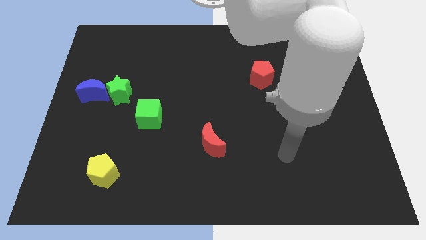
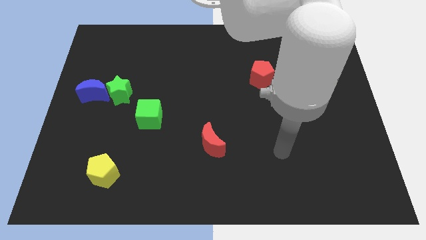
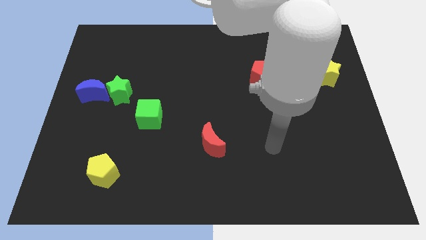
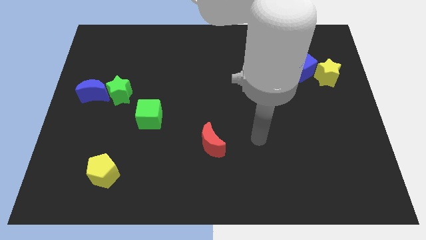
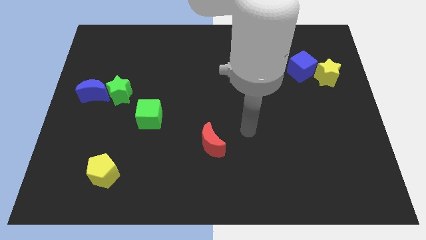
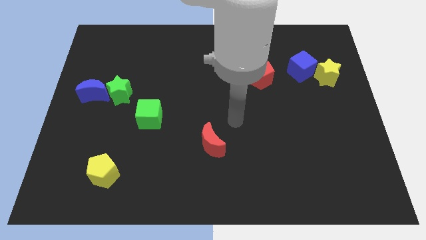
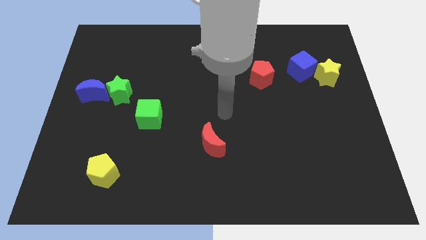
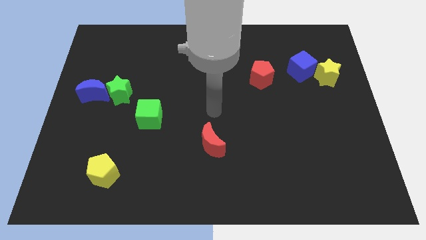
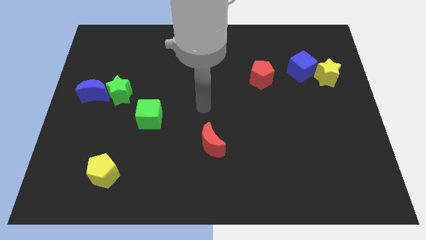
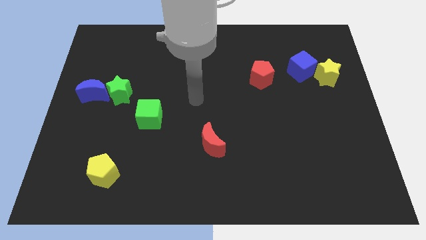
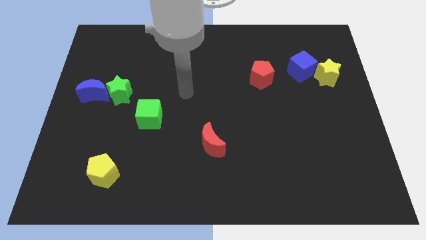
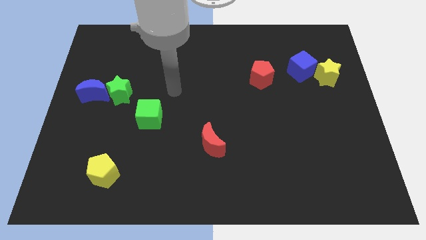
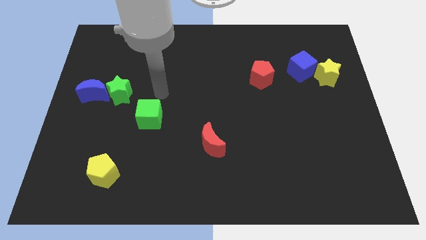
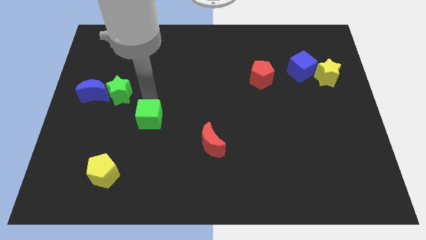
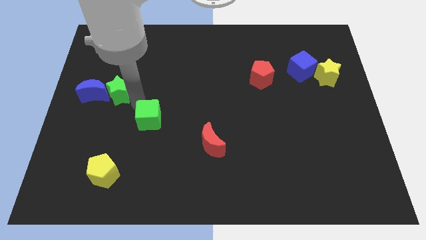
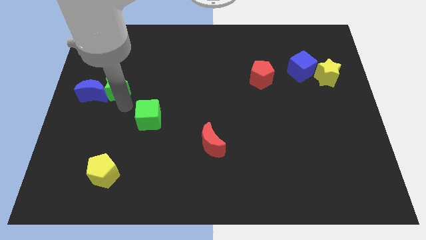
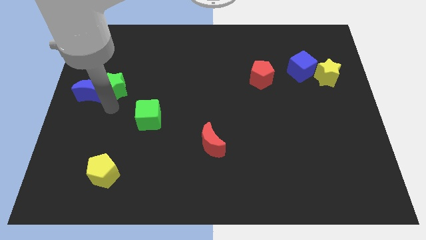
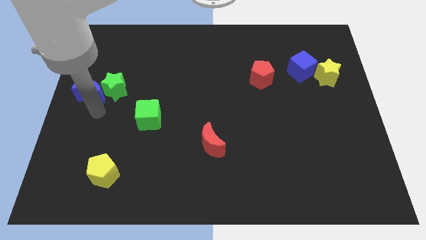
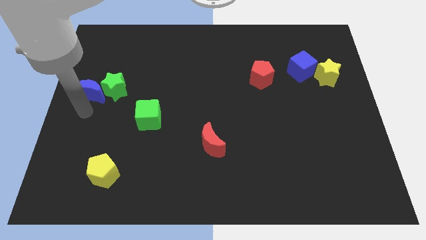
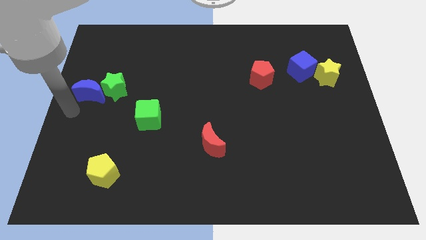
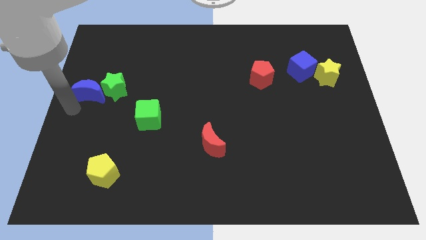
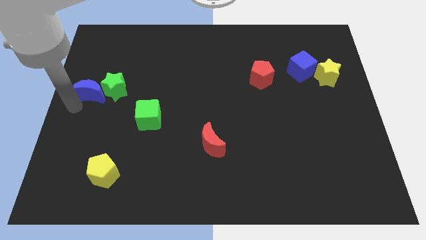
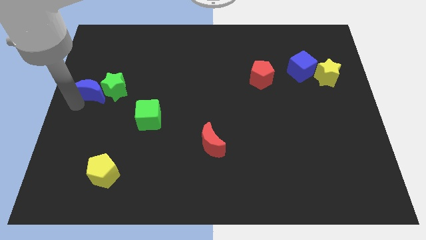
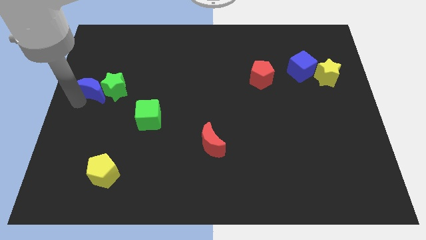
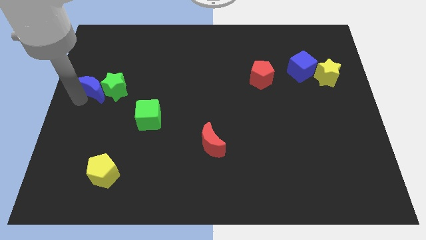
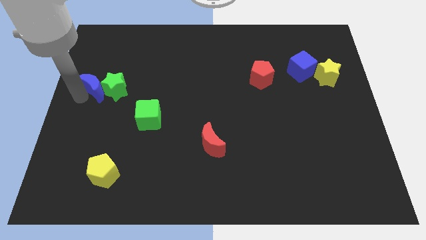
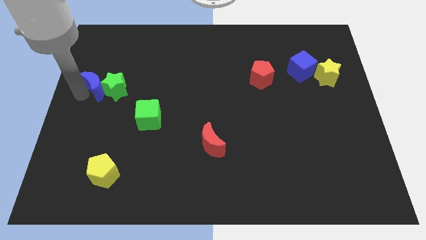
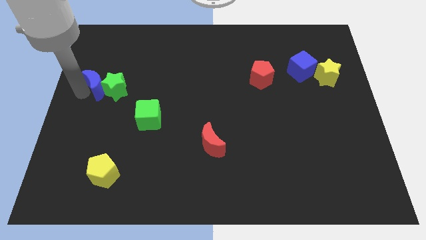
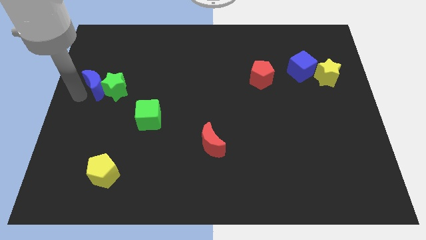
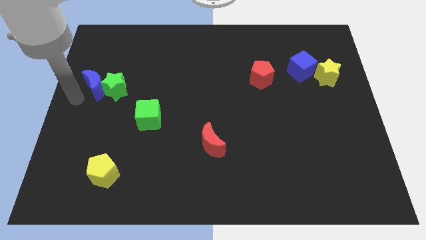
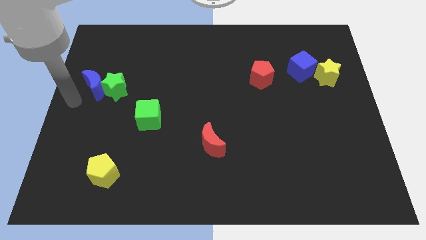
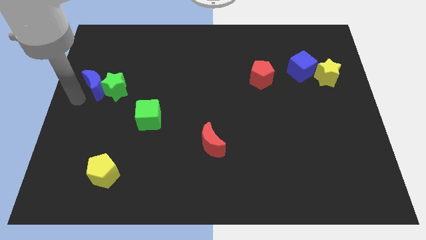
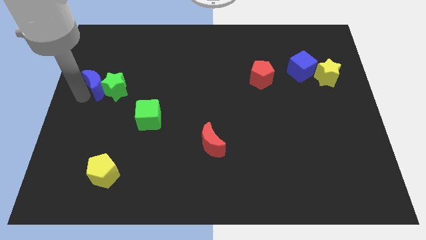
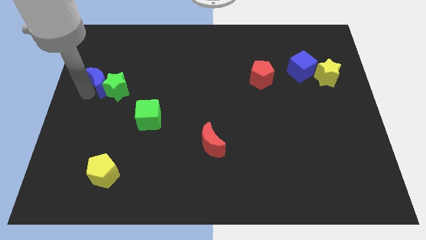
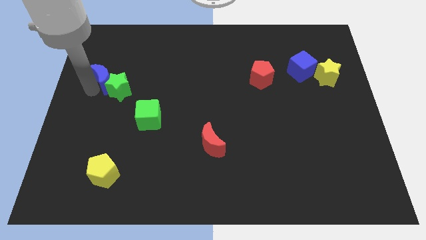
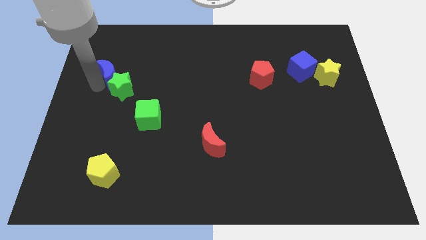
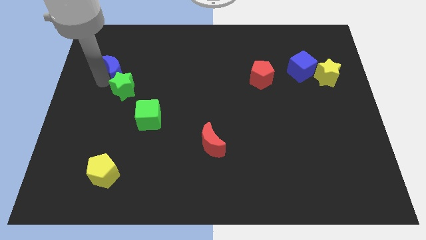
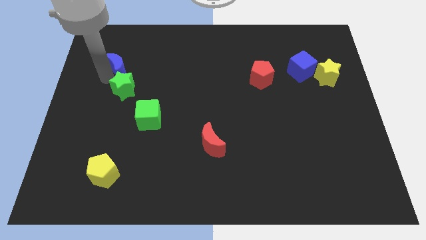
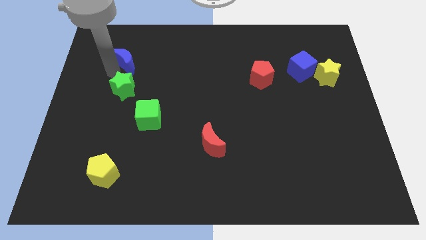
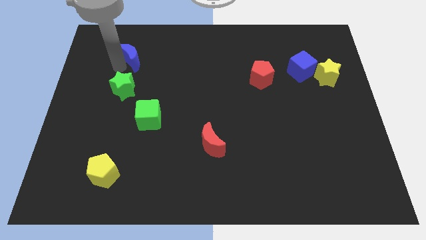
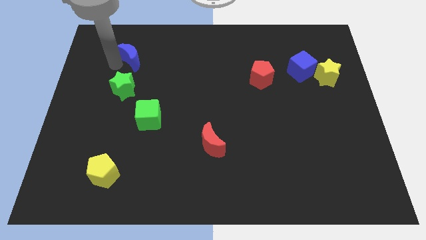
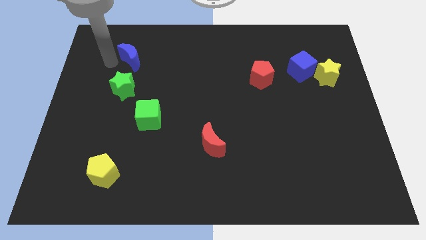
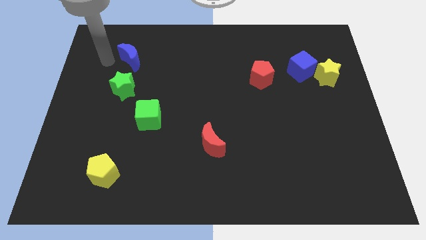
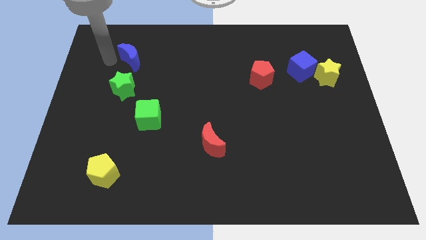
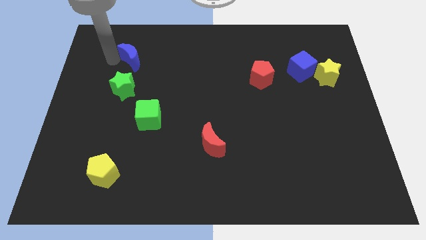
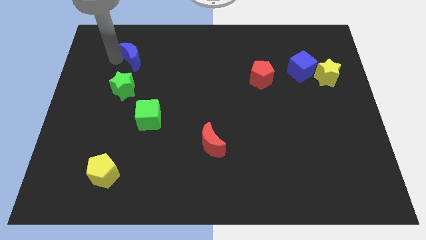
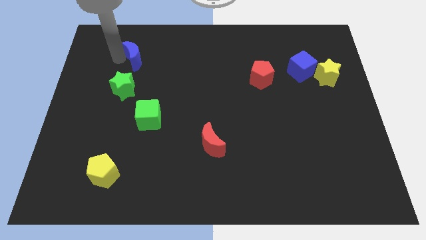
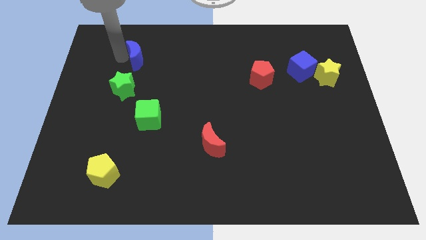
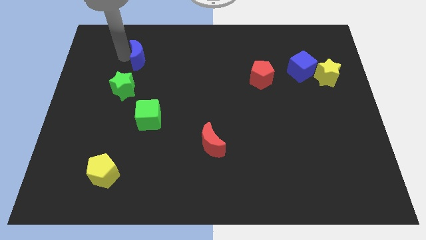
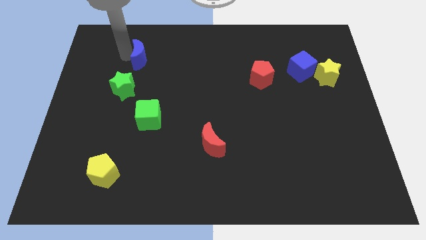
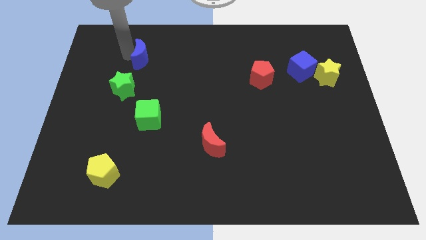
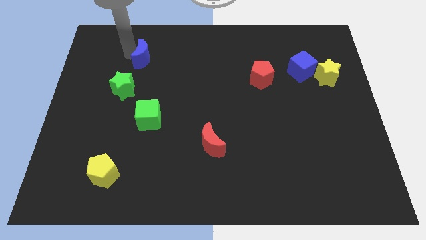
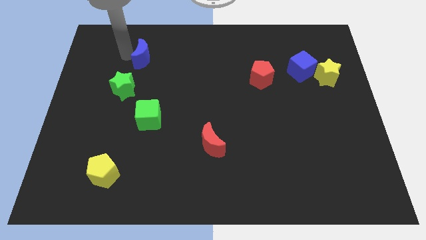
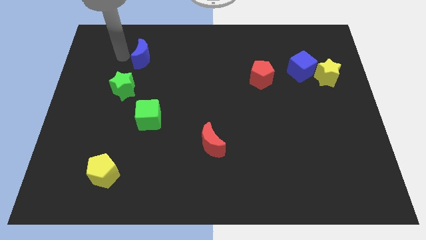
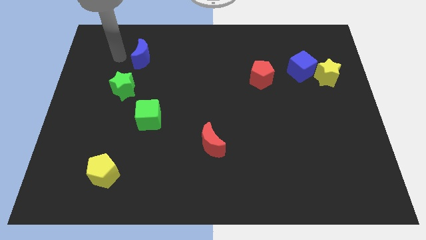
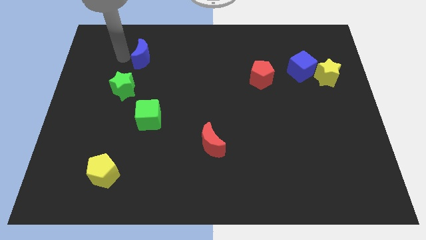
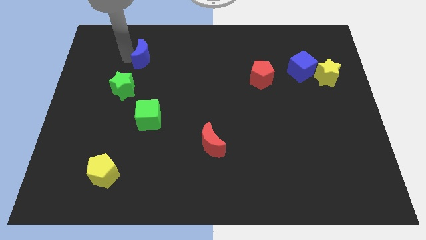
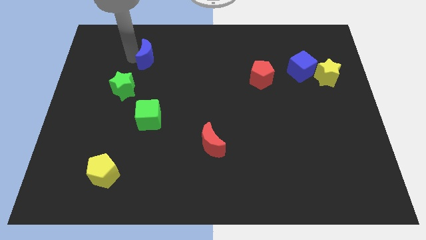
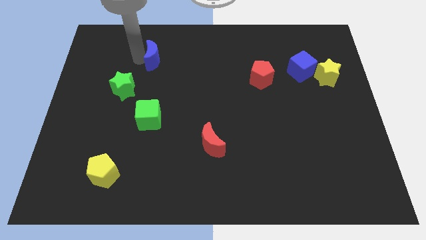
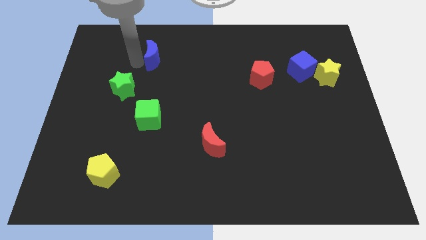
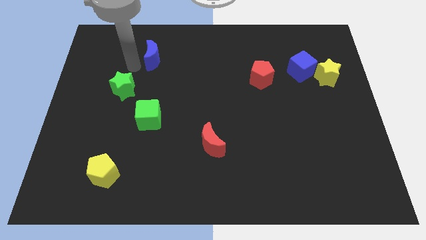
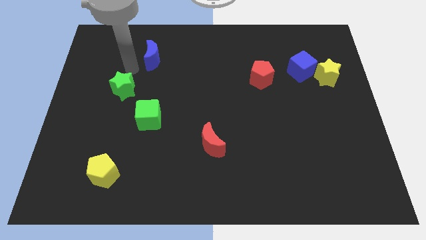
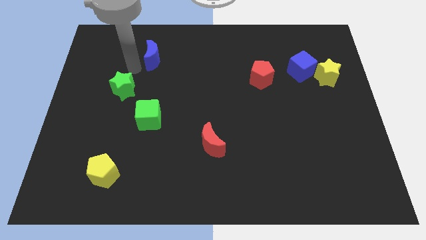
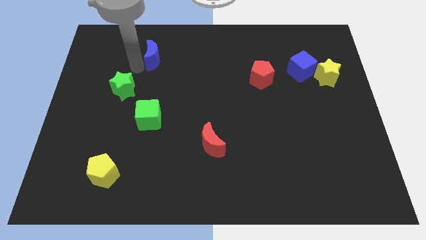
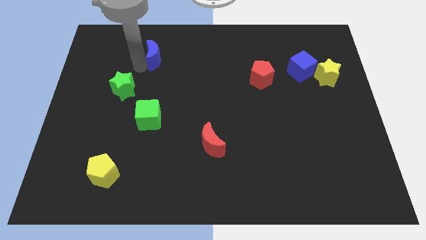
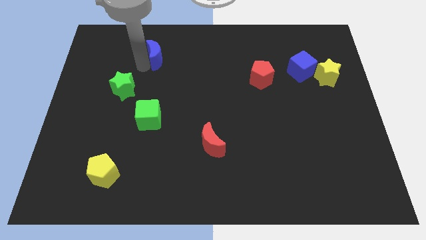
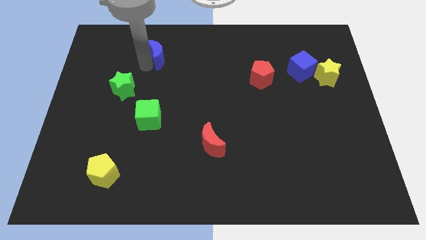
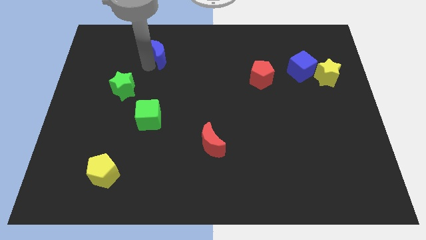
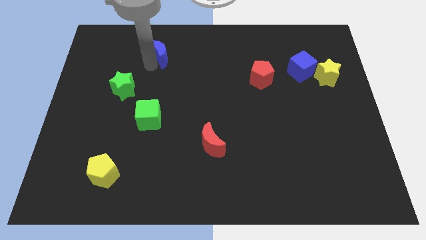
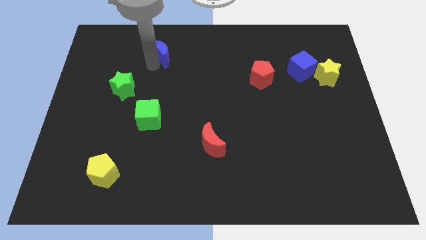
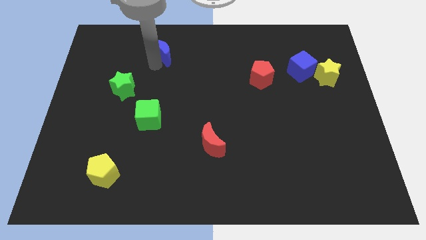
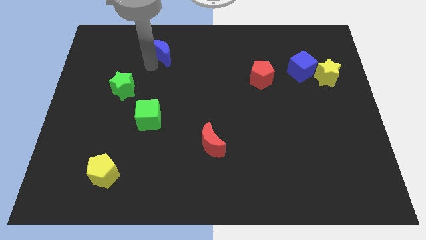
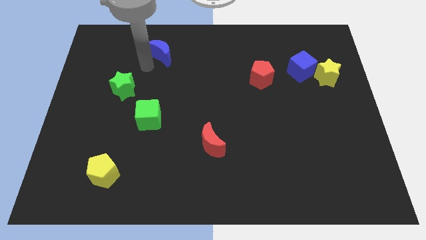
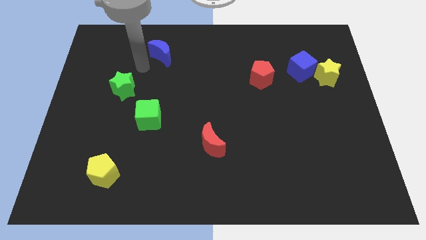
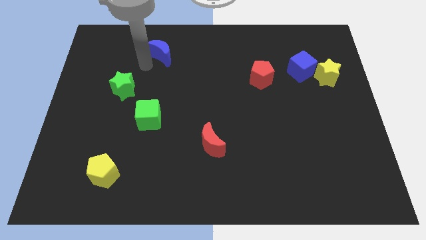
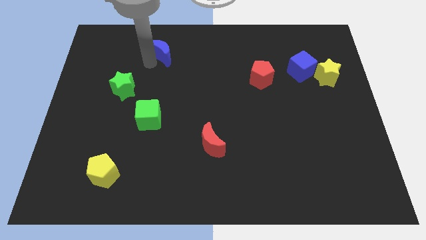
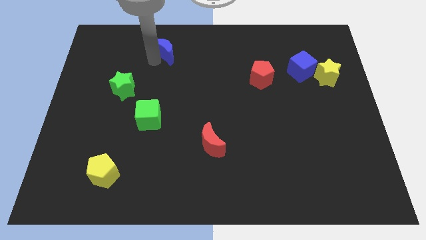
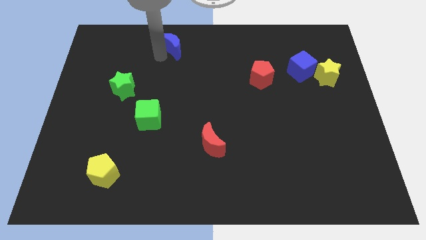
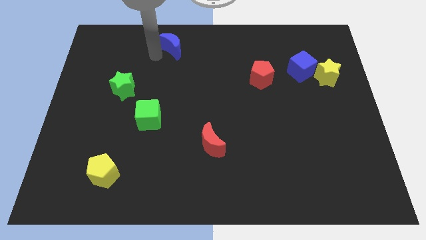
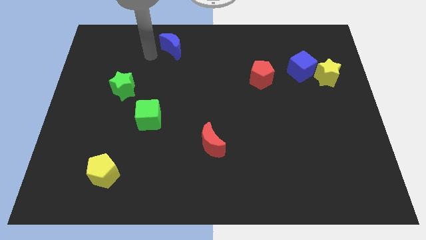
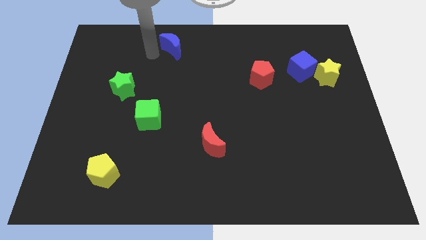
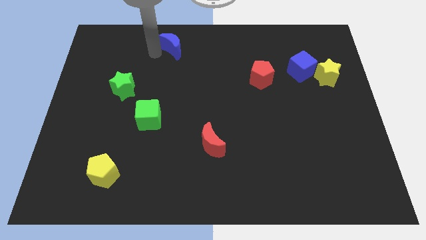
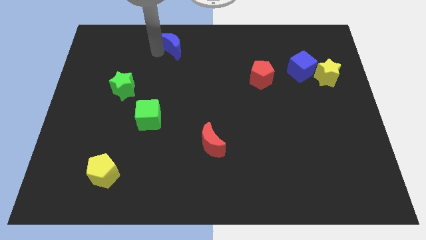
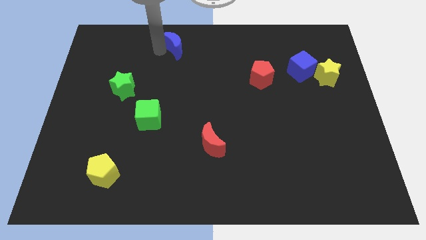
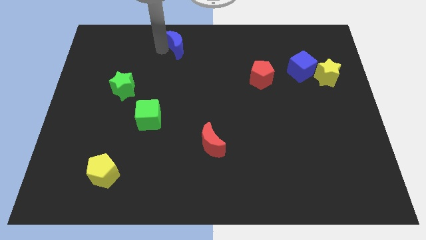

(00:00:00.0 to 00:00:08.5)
move the blue moon to the top side
